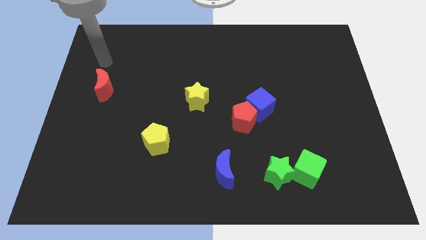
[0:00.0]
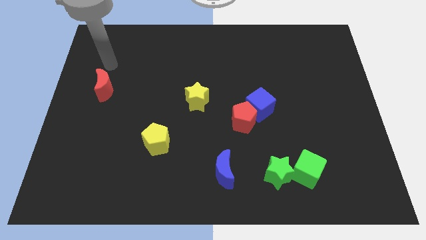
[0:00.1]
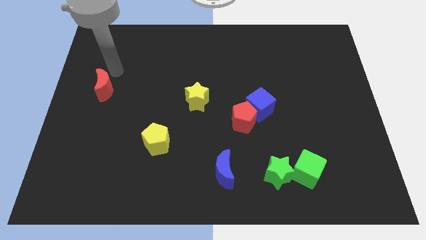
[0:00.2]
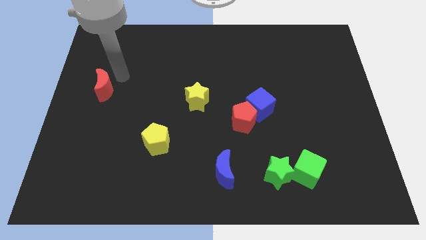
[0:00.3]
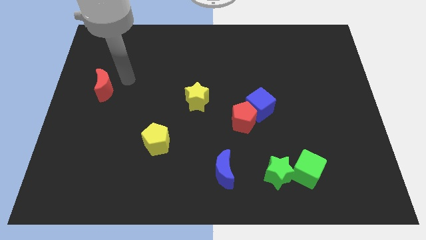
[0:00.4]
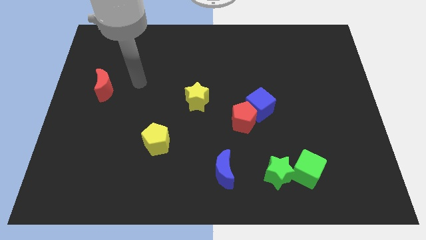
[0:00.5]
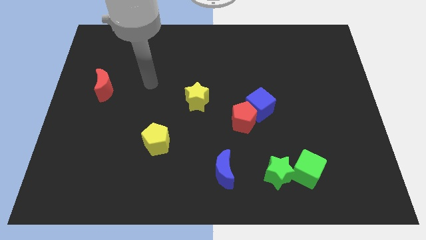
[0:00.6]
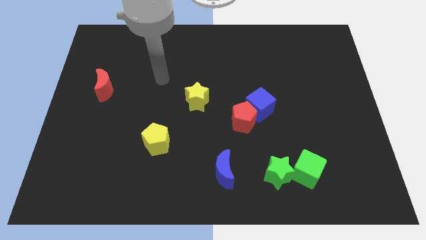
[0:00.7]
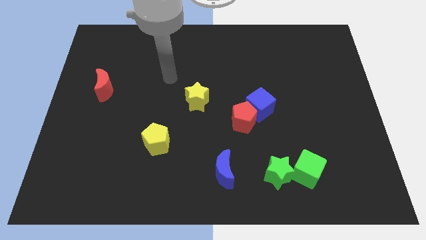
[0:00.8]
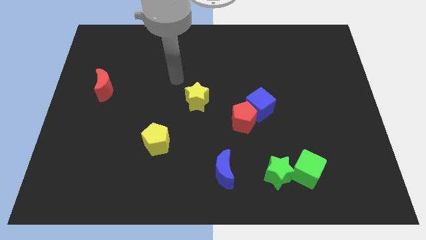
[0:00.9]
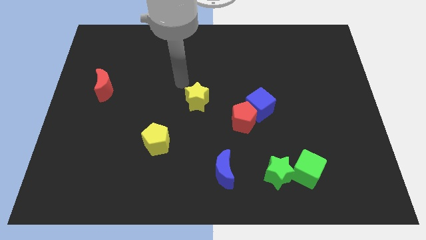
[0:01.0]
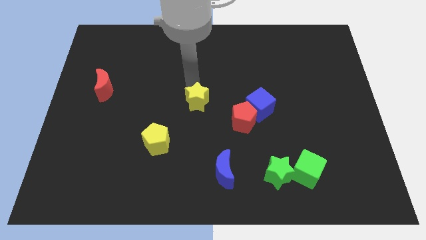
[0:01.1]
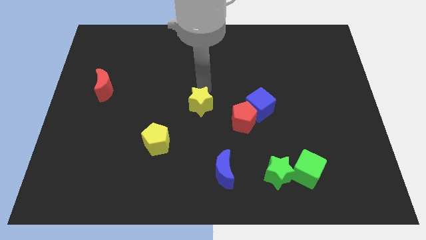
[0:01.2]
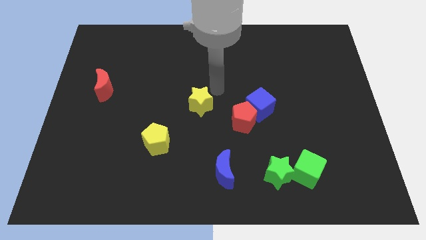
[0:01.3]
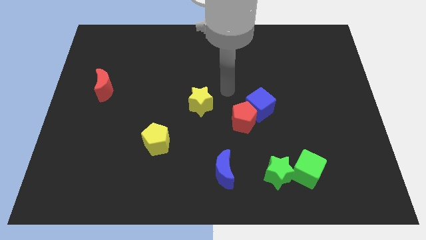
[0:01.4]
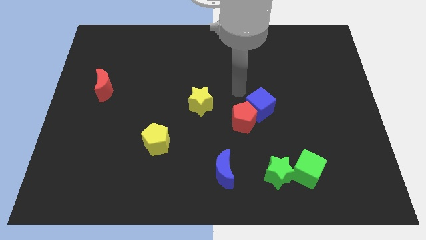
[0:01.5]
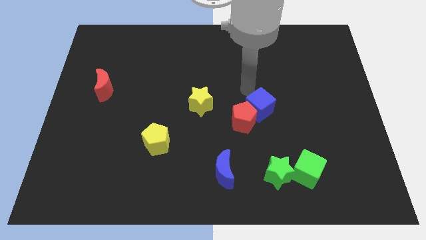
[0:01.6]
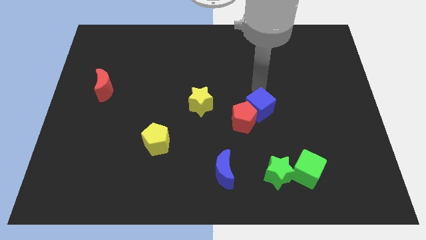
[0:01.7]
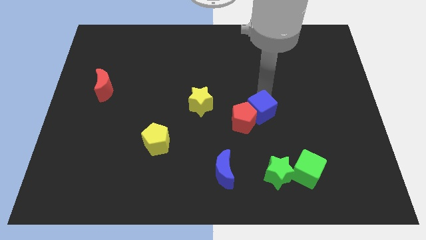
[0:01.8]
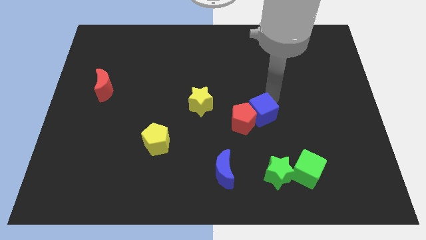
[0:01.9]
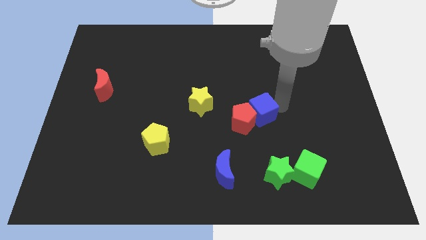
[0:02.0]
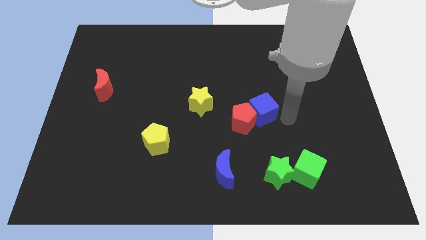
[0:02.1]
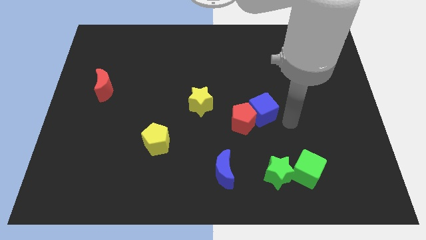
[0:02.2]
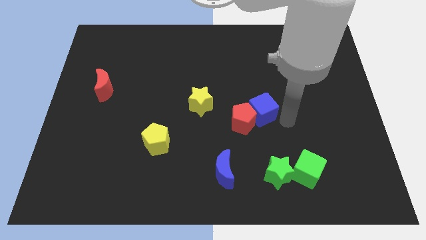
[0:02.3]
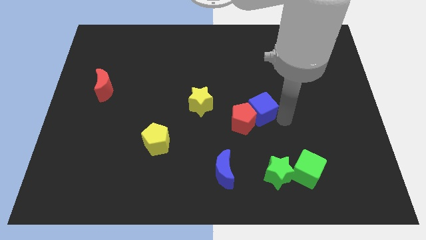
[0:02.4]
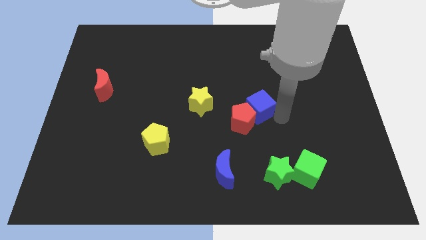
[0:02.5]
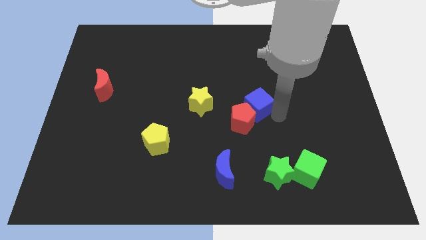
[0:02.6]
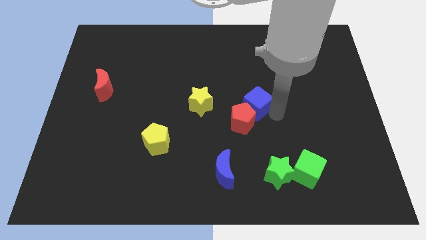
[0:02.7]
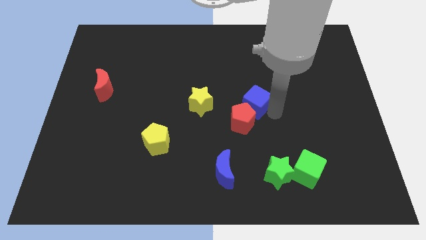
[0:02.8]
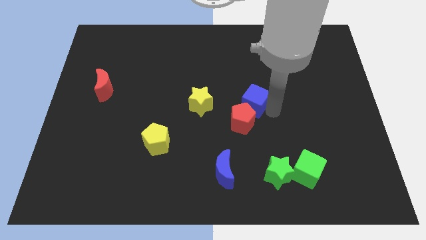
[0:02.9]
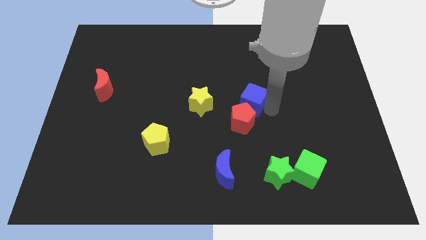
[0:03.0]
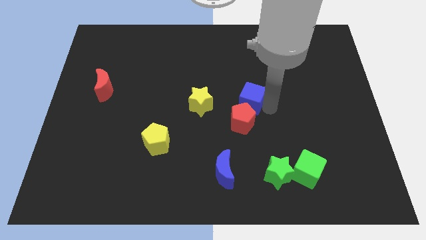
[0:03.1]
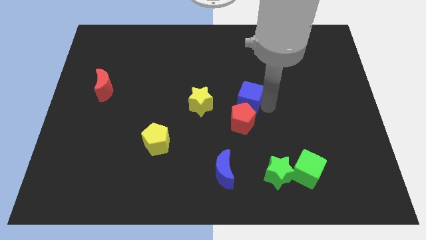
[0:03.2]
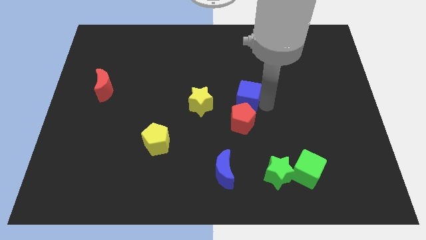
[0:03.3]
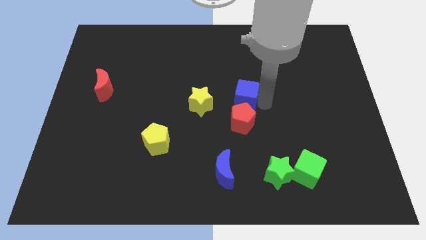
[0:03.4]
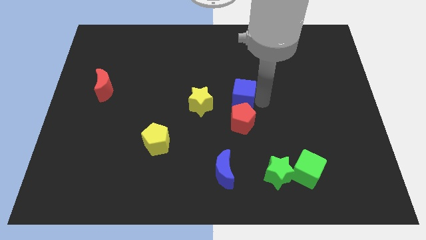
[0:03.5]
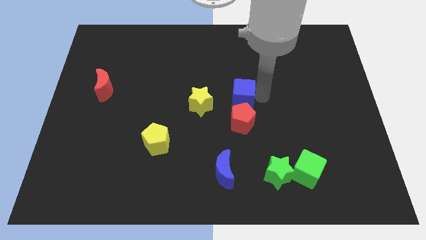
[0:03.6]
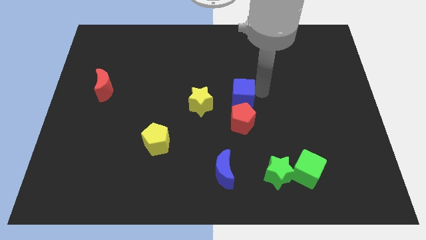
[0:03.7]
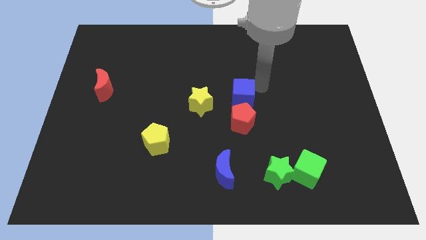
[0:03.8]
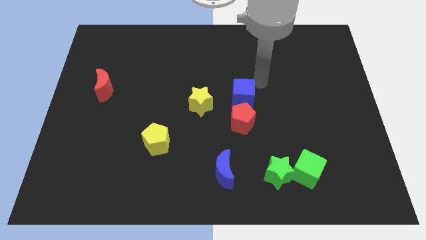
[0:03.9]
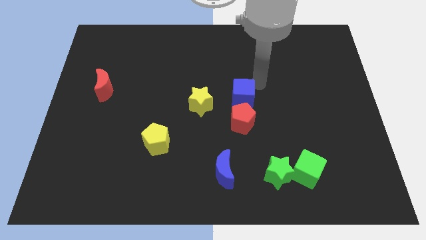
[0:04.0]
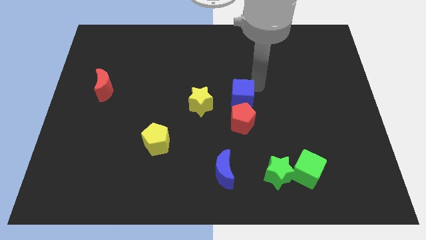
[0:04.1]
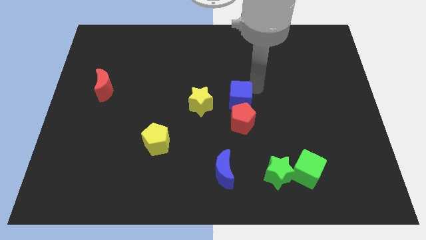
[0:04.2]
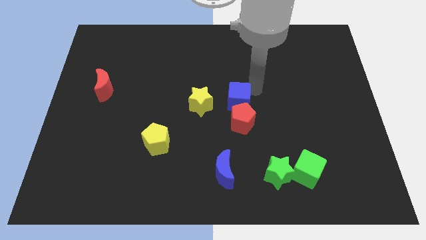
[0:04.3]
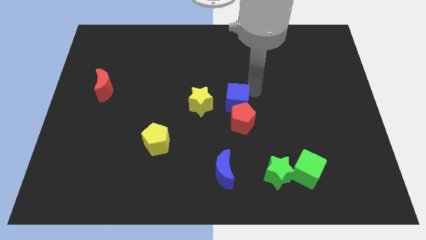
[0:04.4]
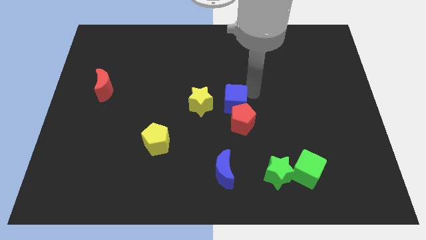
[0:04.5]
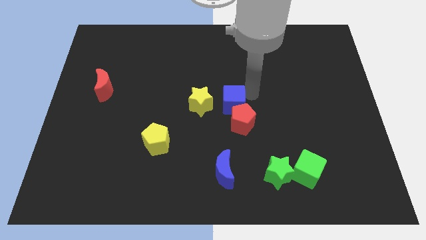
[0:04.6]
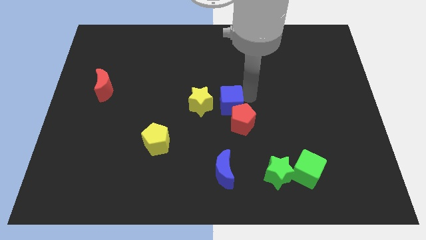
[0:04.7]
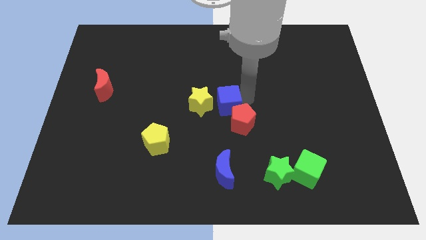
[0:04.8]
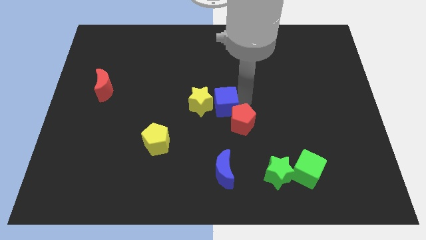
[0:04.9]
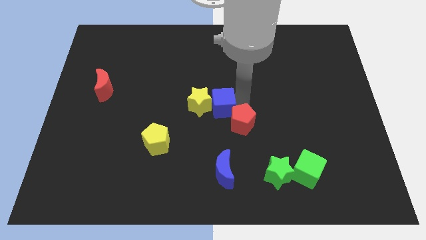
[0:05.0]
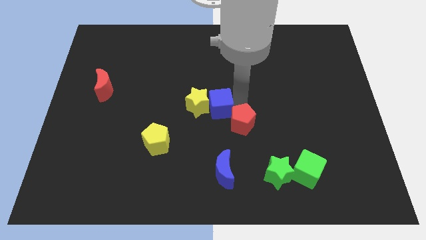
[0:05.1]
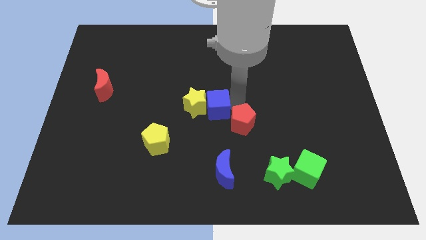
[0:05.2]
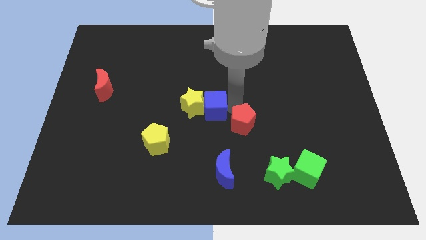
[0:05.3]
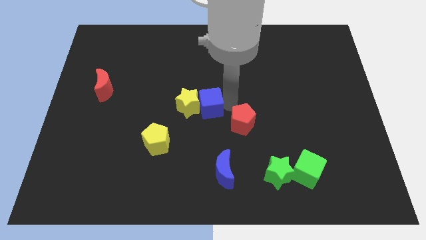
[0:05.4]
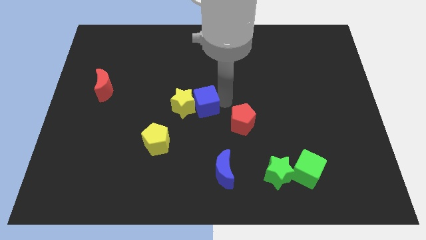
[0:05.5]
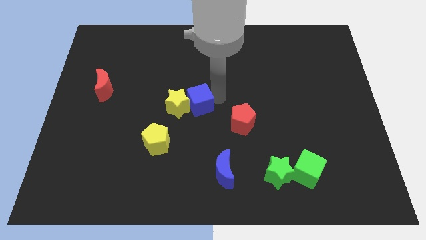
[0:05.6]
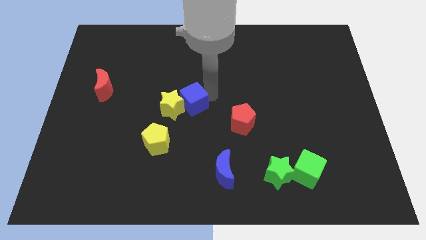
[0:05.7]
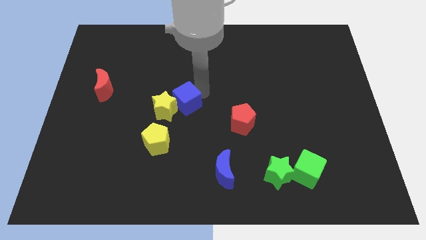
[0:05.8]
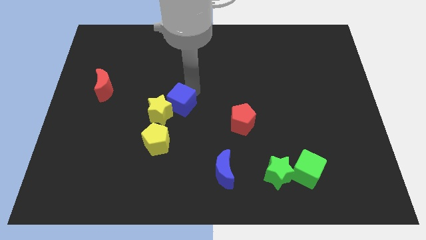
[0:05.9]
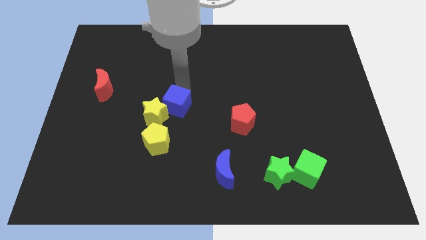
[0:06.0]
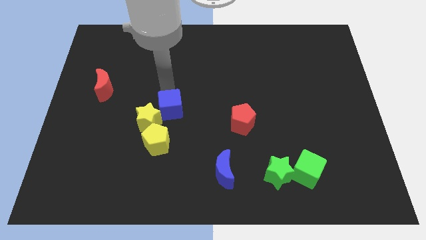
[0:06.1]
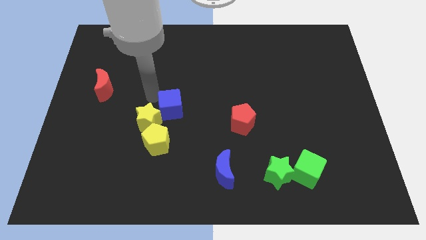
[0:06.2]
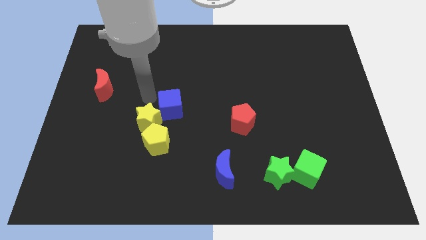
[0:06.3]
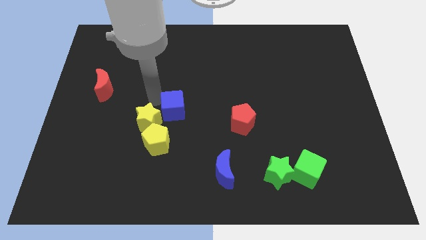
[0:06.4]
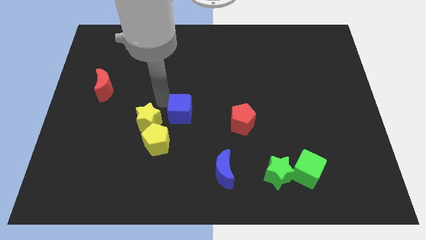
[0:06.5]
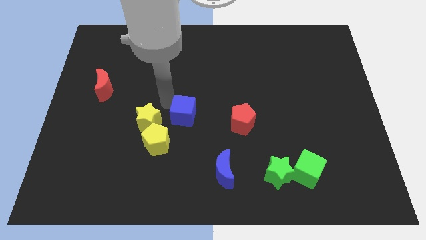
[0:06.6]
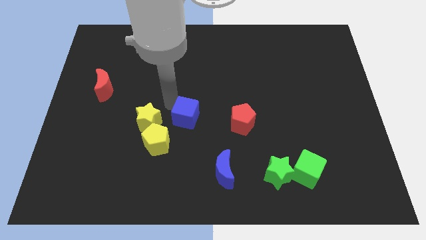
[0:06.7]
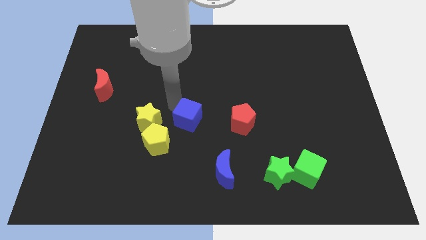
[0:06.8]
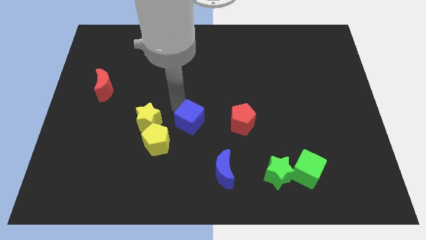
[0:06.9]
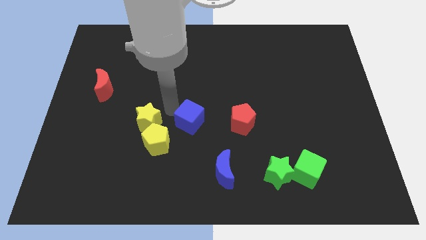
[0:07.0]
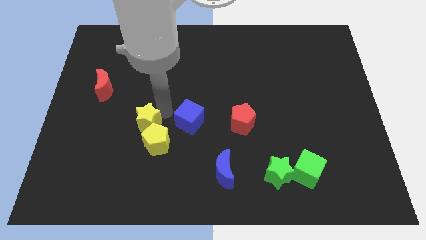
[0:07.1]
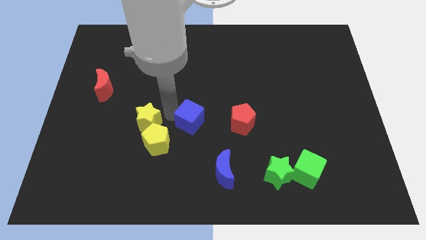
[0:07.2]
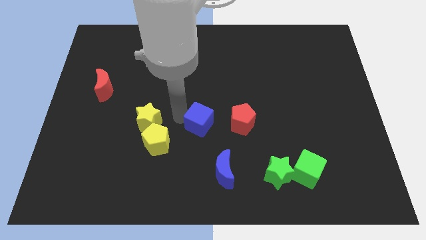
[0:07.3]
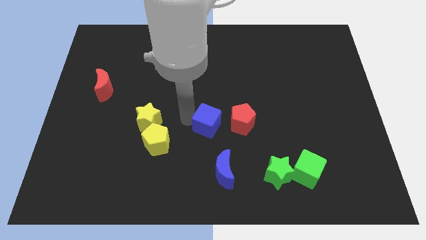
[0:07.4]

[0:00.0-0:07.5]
slide the blue cube above the blue moon
